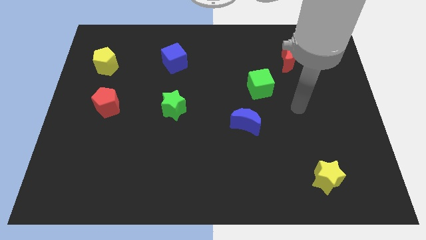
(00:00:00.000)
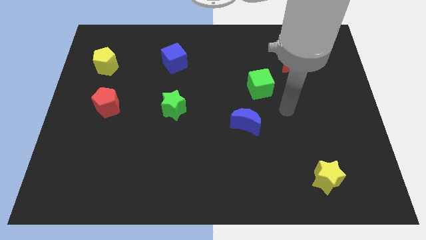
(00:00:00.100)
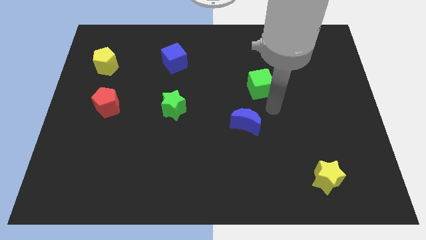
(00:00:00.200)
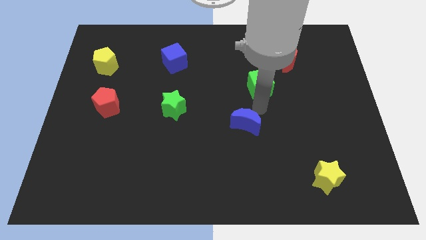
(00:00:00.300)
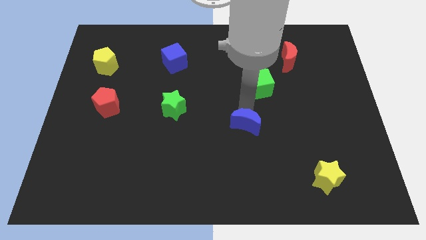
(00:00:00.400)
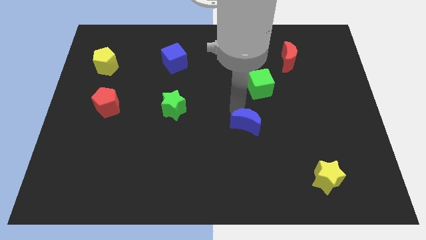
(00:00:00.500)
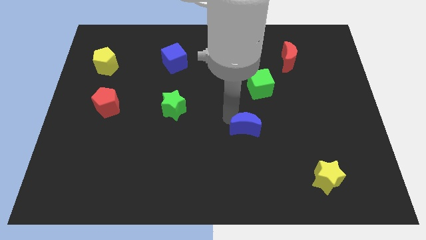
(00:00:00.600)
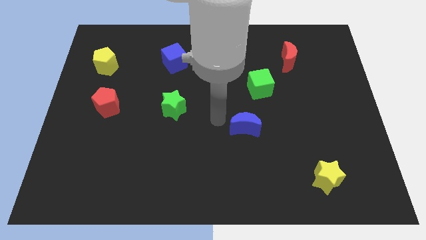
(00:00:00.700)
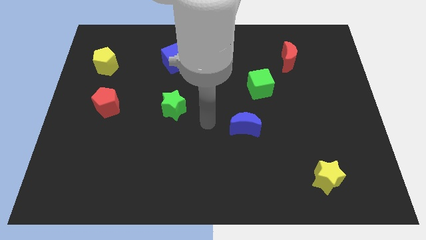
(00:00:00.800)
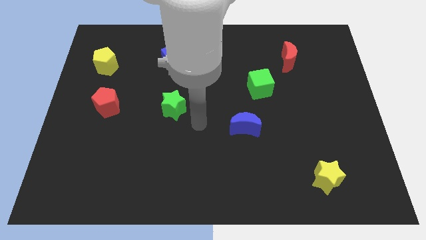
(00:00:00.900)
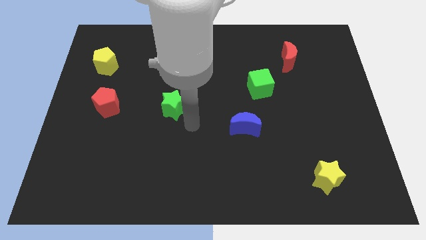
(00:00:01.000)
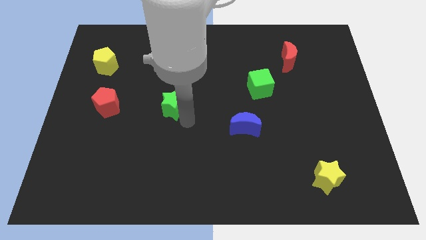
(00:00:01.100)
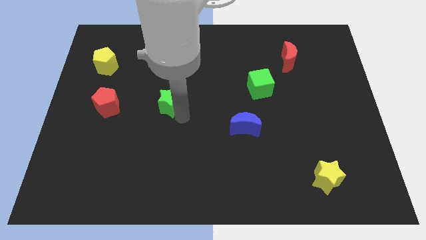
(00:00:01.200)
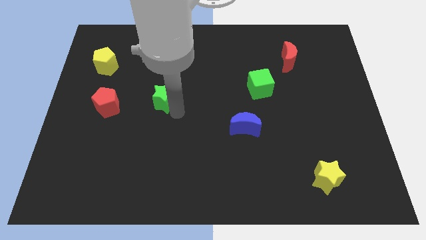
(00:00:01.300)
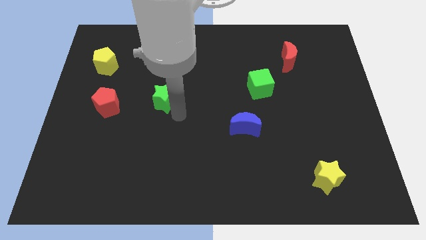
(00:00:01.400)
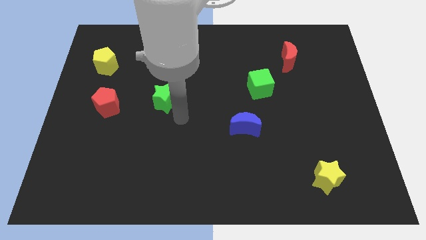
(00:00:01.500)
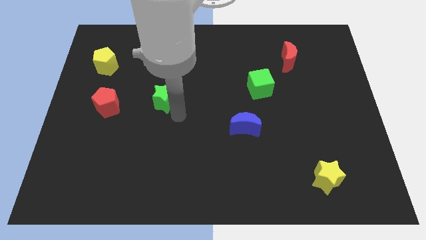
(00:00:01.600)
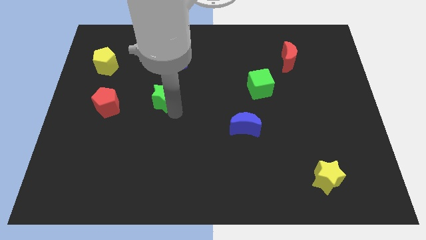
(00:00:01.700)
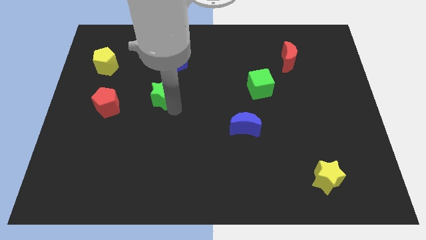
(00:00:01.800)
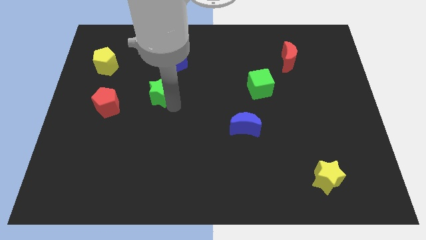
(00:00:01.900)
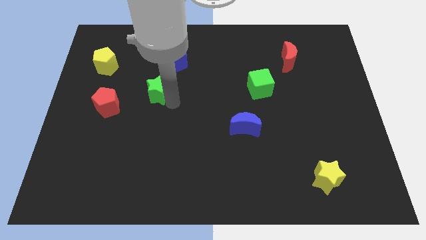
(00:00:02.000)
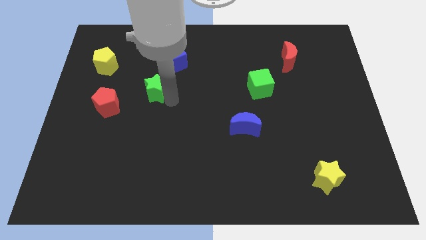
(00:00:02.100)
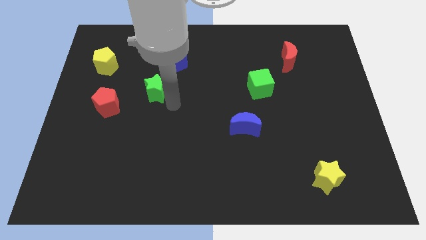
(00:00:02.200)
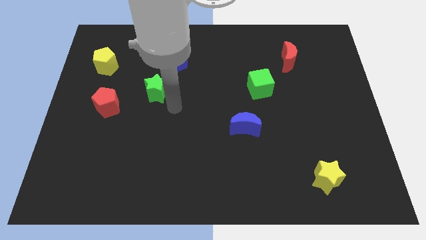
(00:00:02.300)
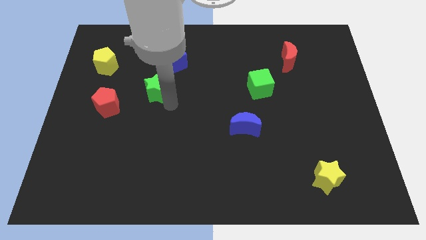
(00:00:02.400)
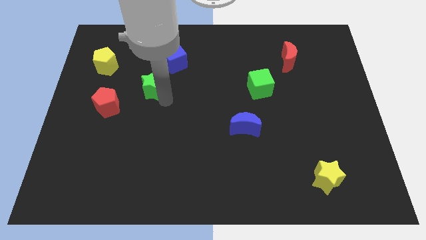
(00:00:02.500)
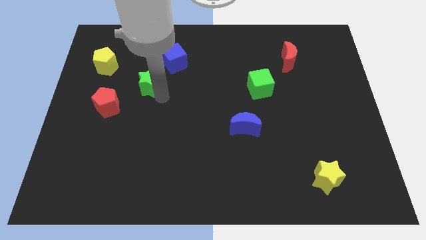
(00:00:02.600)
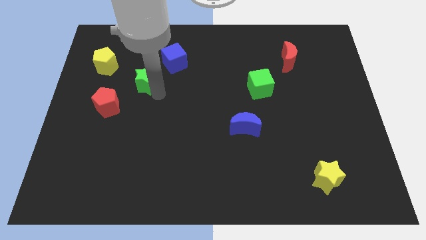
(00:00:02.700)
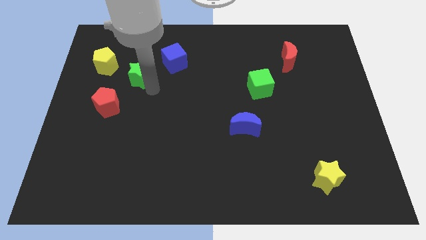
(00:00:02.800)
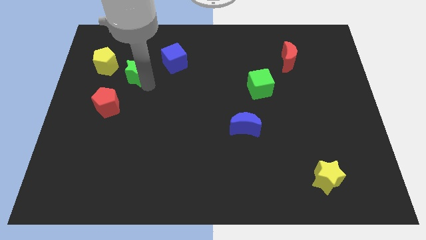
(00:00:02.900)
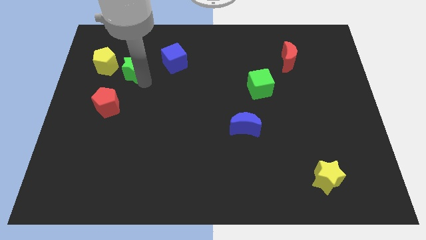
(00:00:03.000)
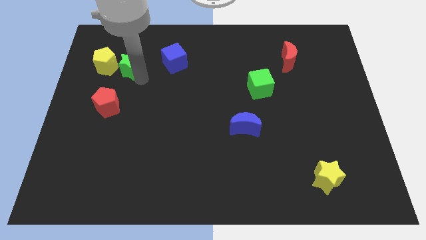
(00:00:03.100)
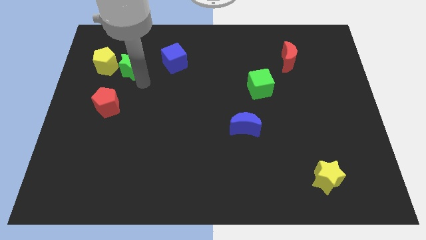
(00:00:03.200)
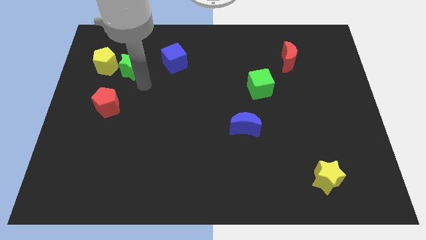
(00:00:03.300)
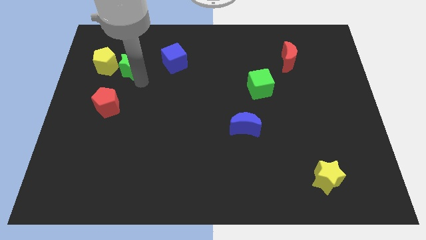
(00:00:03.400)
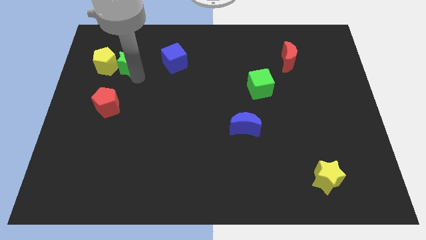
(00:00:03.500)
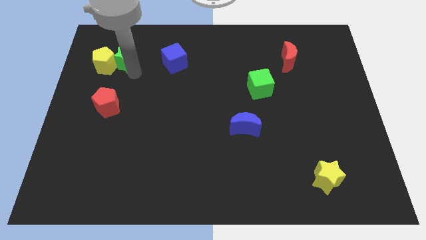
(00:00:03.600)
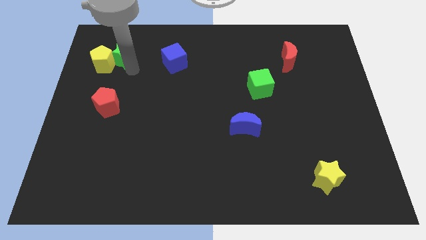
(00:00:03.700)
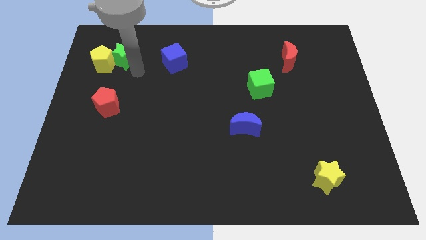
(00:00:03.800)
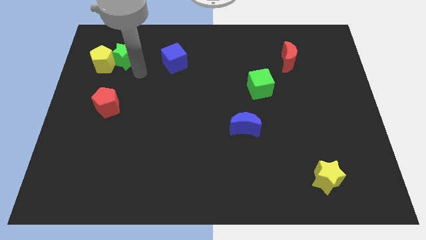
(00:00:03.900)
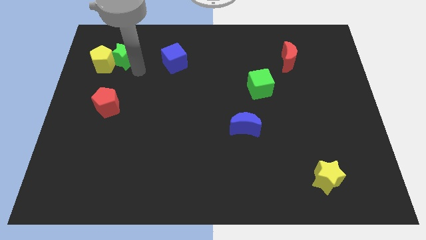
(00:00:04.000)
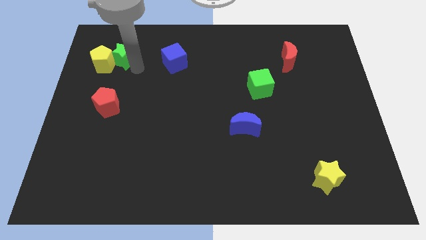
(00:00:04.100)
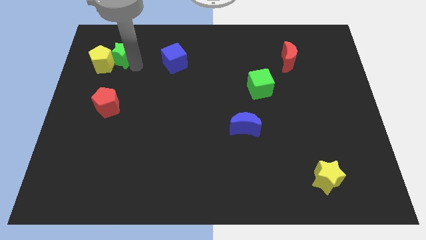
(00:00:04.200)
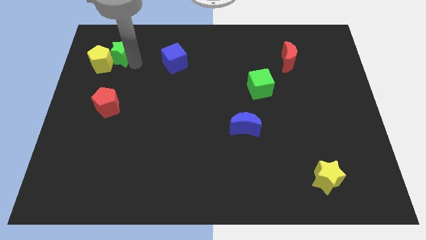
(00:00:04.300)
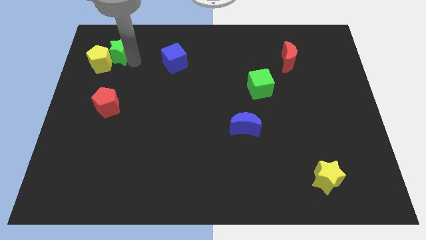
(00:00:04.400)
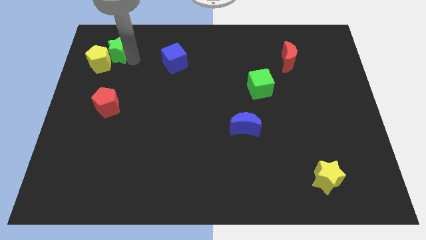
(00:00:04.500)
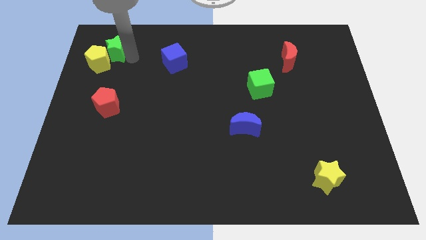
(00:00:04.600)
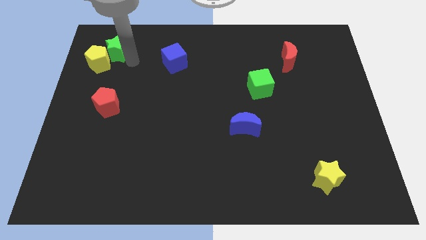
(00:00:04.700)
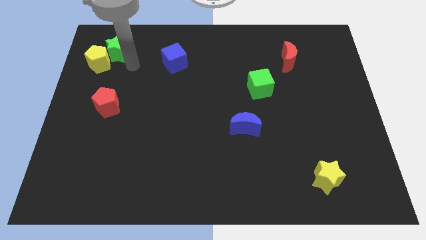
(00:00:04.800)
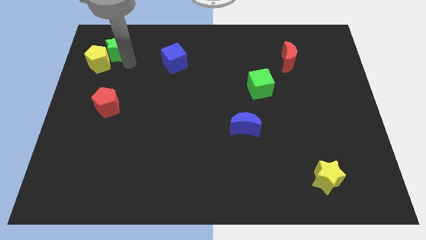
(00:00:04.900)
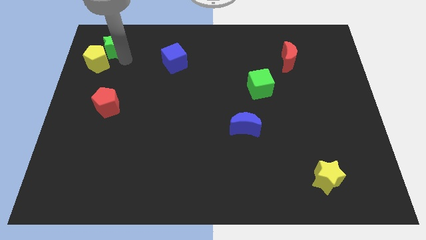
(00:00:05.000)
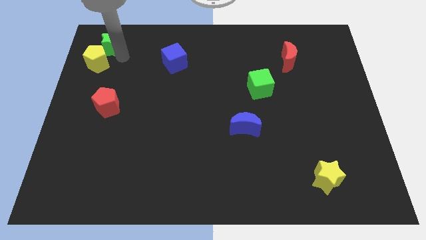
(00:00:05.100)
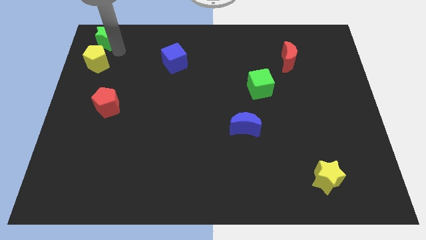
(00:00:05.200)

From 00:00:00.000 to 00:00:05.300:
slide the green star to the top left
